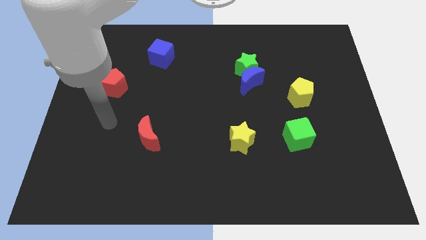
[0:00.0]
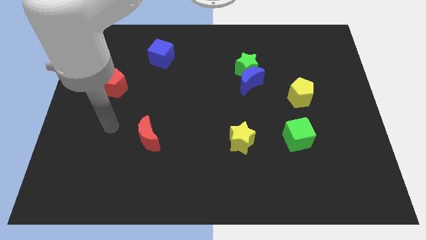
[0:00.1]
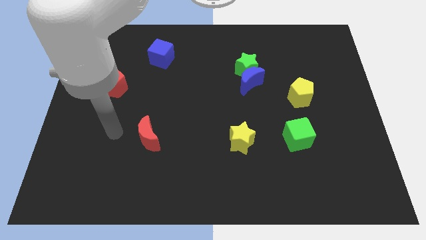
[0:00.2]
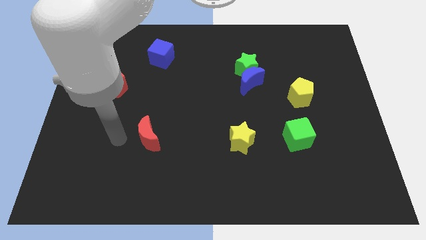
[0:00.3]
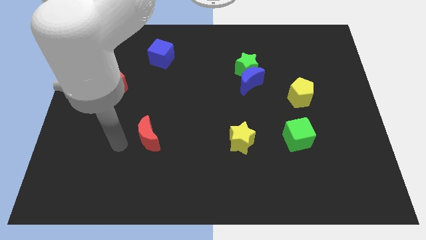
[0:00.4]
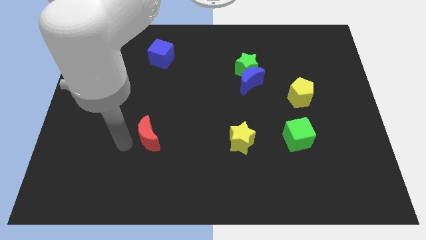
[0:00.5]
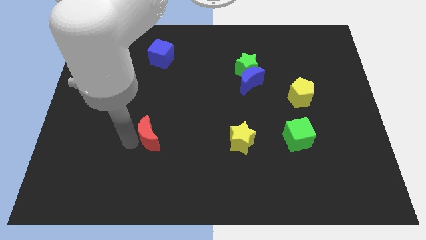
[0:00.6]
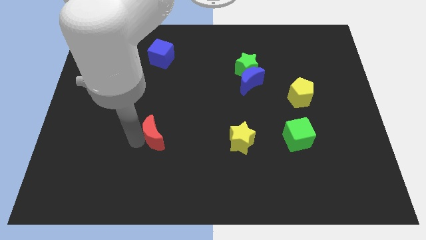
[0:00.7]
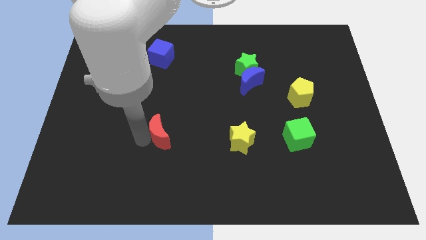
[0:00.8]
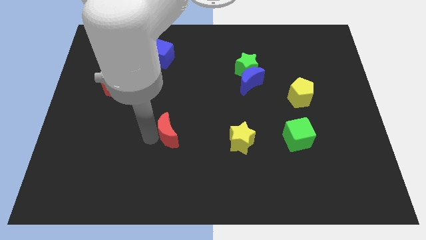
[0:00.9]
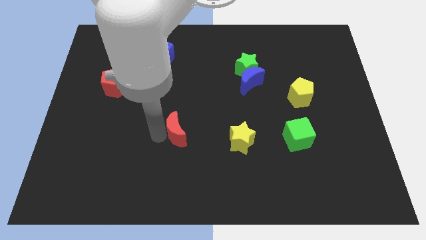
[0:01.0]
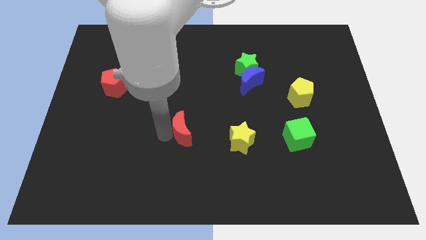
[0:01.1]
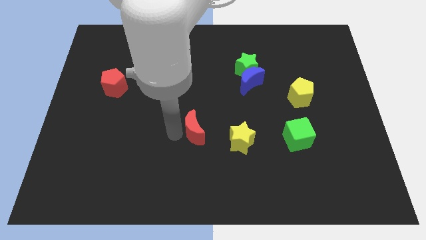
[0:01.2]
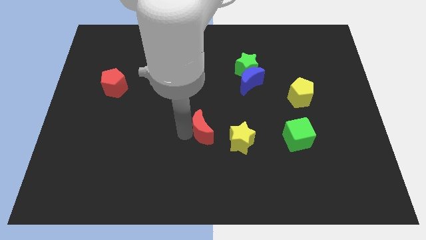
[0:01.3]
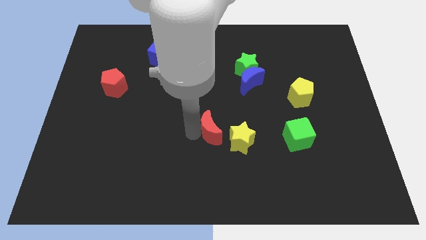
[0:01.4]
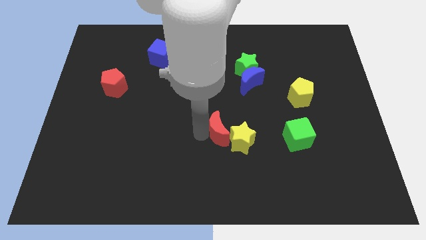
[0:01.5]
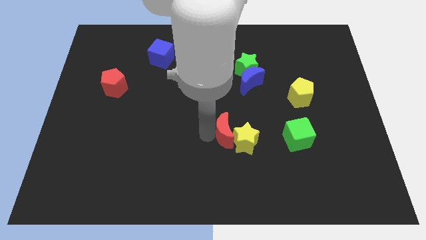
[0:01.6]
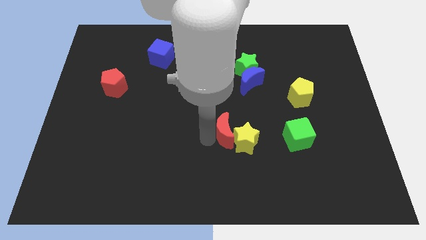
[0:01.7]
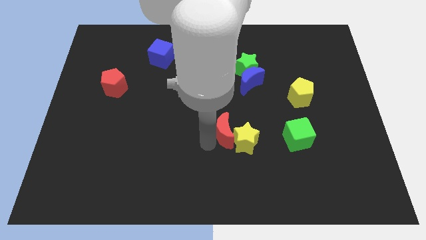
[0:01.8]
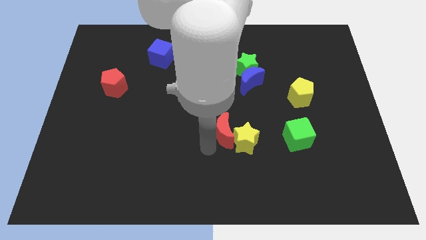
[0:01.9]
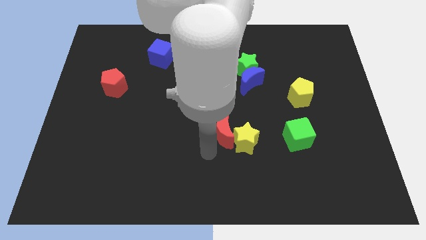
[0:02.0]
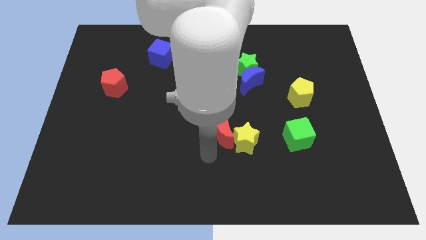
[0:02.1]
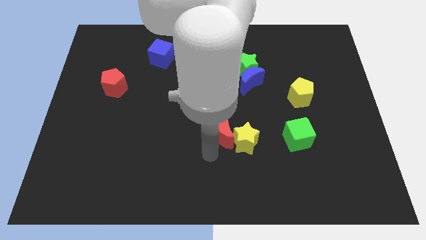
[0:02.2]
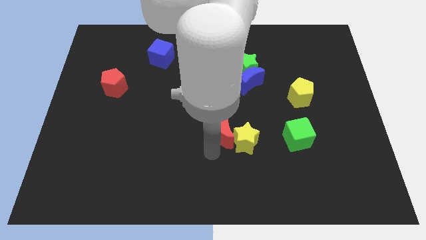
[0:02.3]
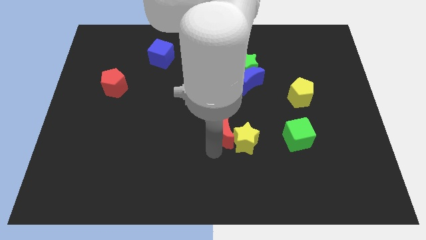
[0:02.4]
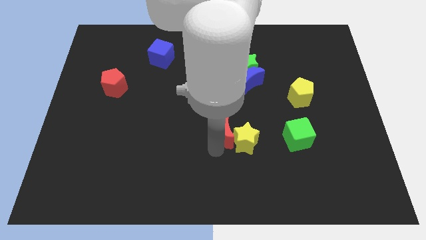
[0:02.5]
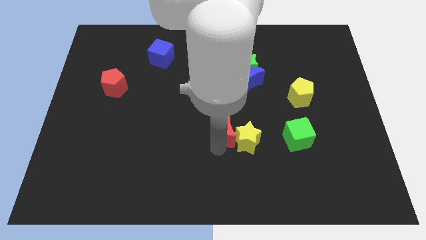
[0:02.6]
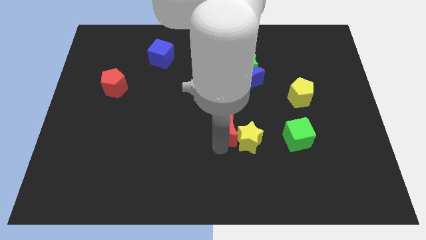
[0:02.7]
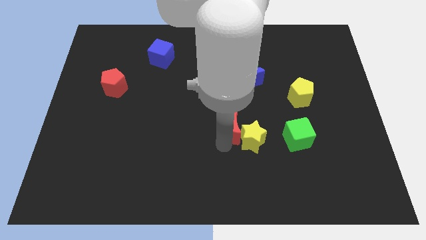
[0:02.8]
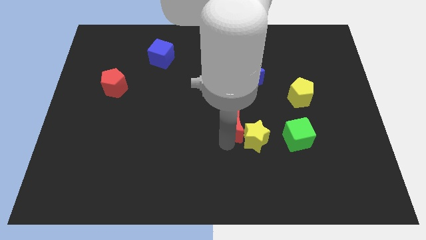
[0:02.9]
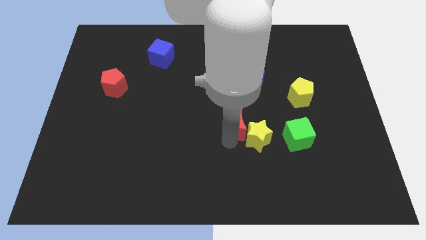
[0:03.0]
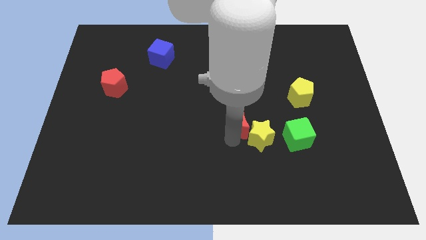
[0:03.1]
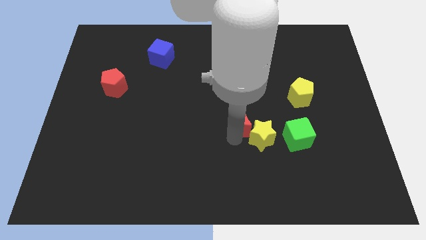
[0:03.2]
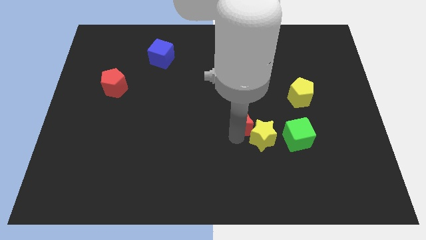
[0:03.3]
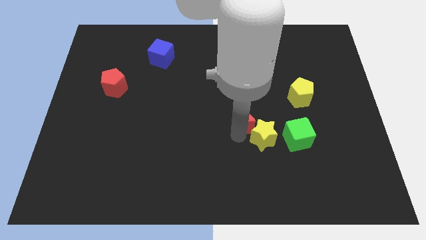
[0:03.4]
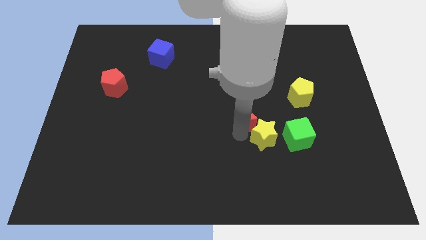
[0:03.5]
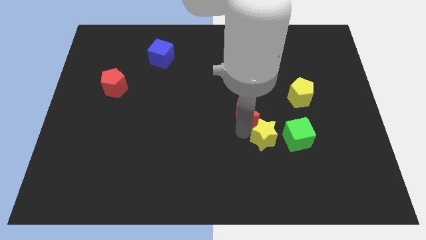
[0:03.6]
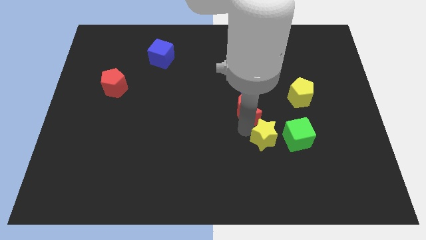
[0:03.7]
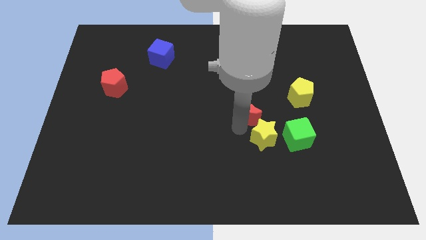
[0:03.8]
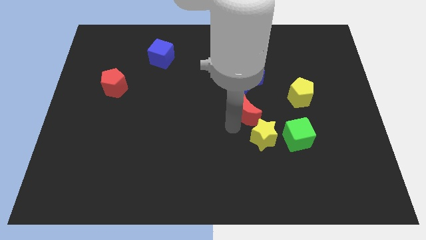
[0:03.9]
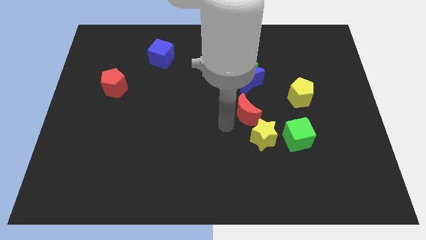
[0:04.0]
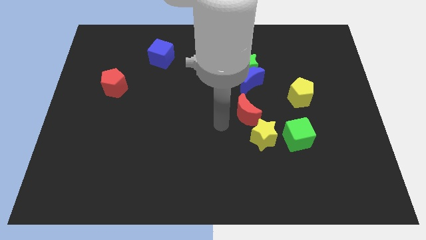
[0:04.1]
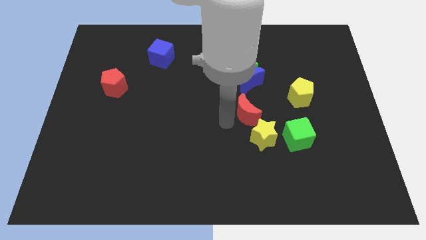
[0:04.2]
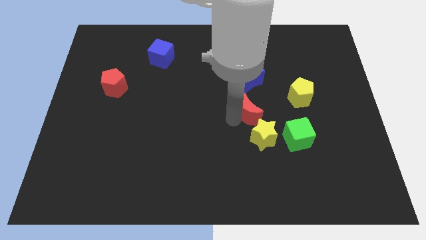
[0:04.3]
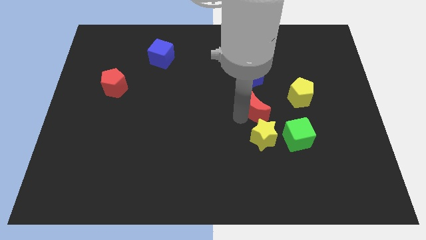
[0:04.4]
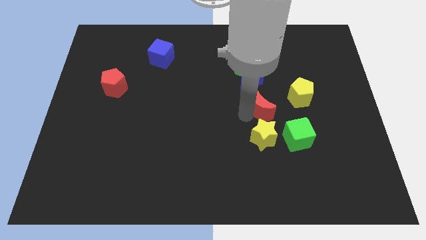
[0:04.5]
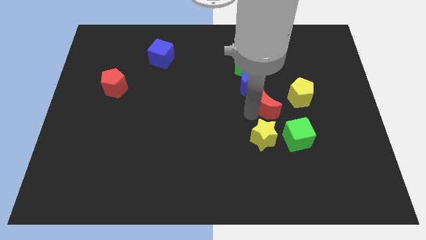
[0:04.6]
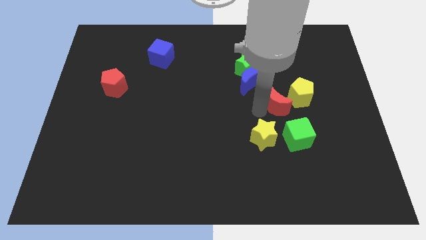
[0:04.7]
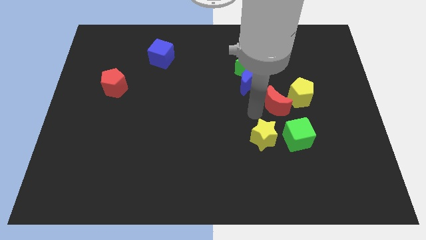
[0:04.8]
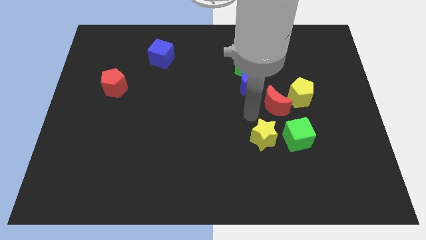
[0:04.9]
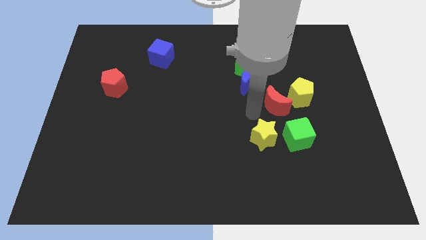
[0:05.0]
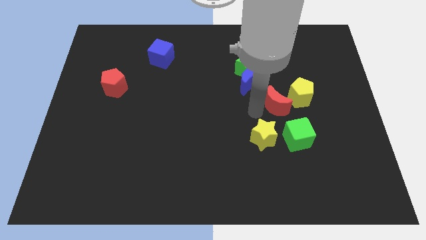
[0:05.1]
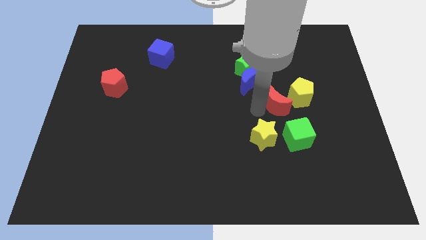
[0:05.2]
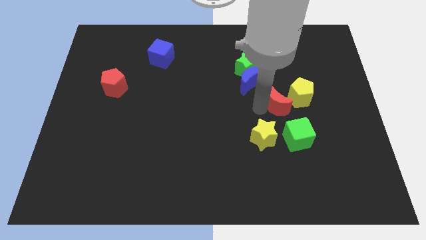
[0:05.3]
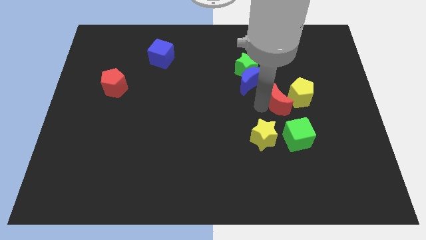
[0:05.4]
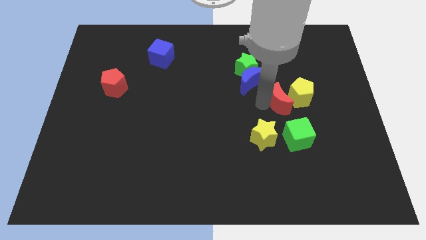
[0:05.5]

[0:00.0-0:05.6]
move the red moon to the yellow pentagon

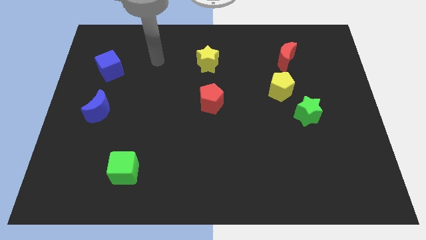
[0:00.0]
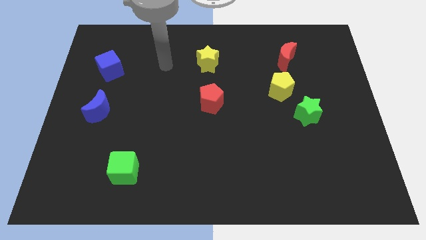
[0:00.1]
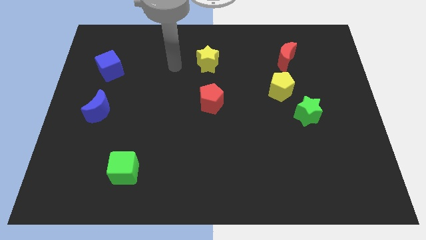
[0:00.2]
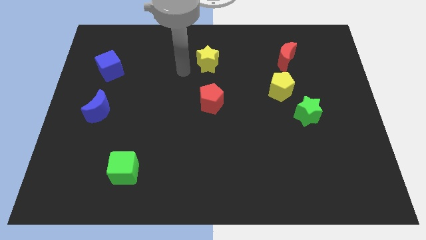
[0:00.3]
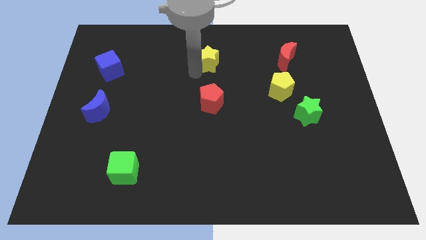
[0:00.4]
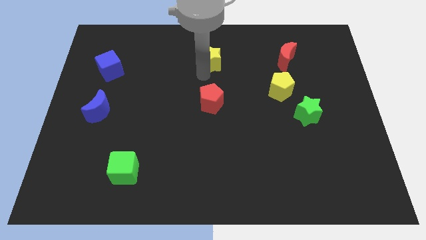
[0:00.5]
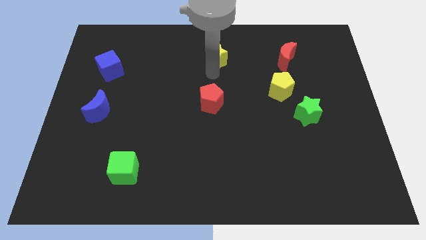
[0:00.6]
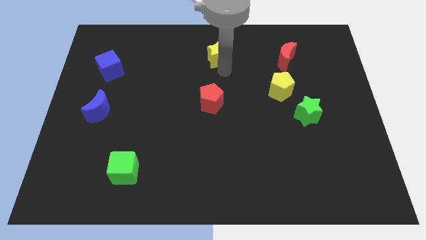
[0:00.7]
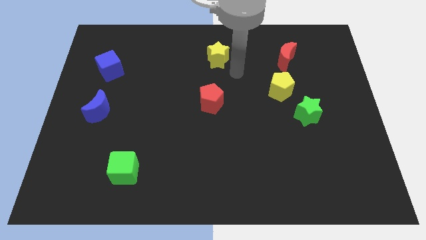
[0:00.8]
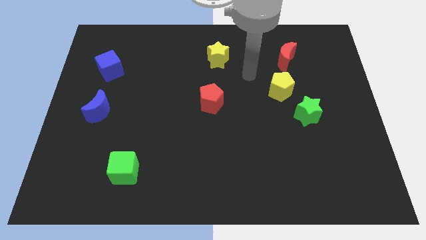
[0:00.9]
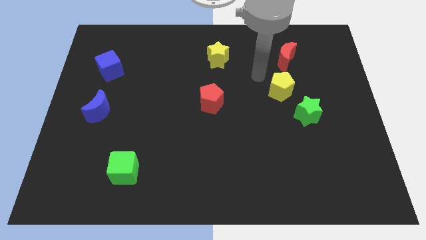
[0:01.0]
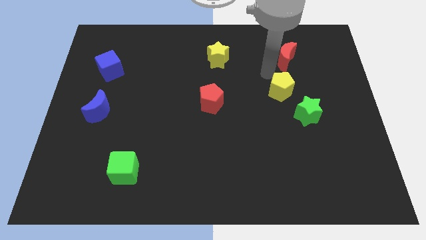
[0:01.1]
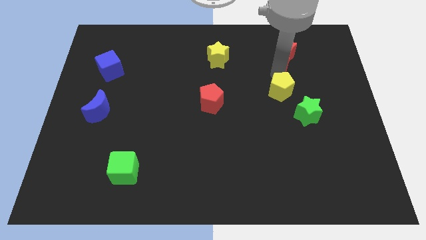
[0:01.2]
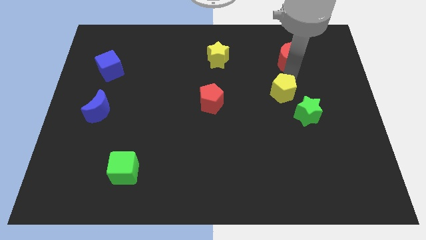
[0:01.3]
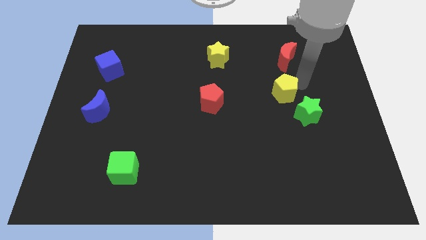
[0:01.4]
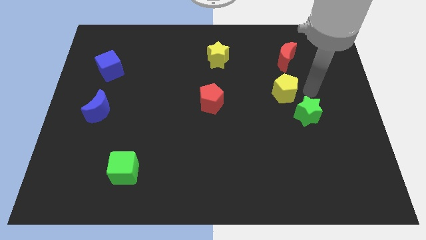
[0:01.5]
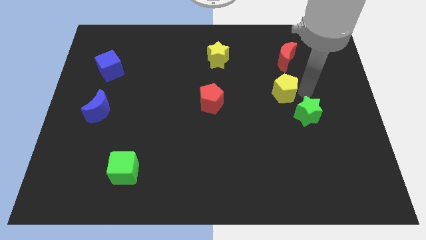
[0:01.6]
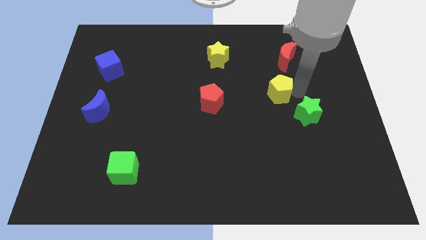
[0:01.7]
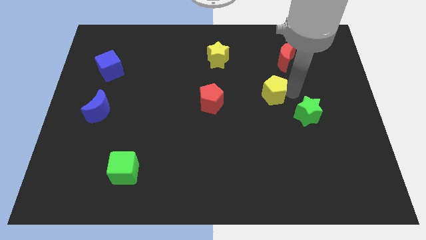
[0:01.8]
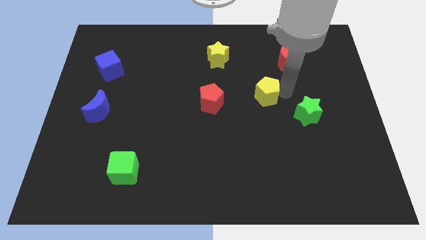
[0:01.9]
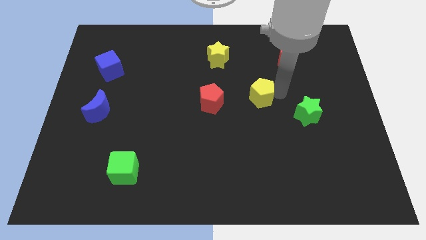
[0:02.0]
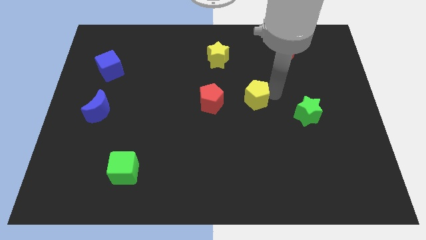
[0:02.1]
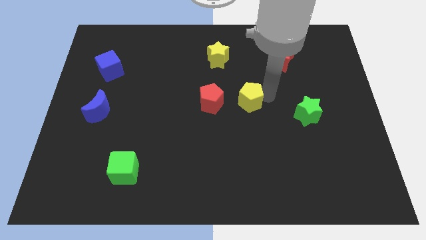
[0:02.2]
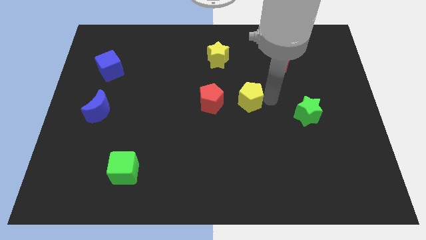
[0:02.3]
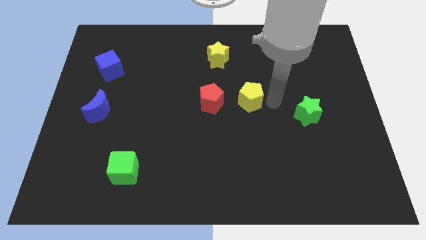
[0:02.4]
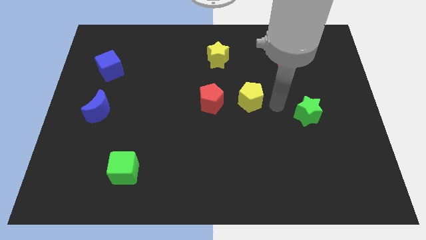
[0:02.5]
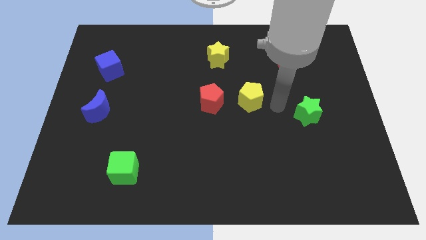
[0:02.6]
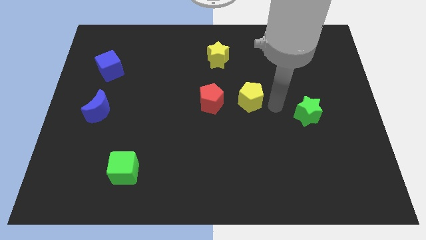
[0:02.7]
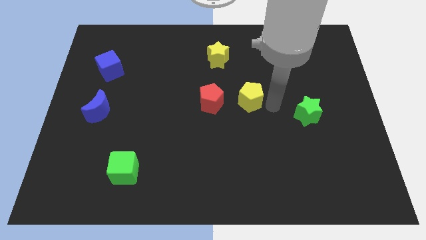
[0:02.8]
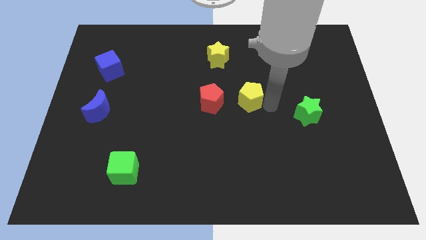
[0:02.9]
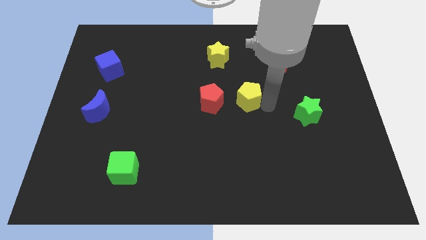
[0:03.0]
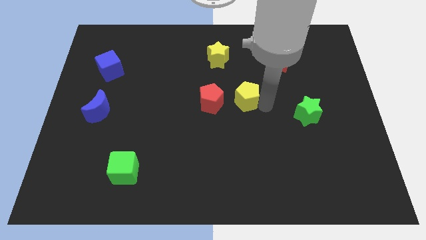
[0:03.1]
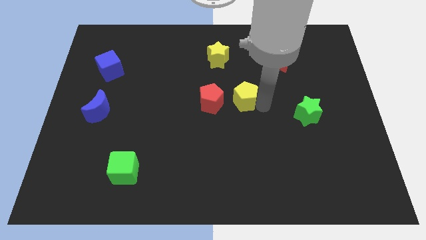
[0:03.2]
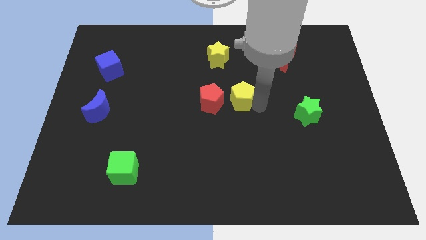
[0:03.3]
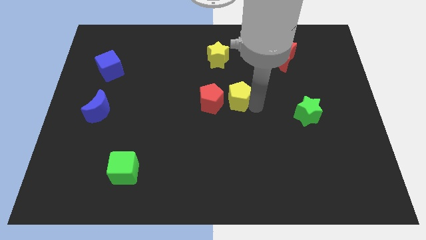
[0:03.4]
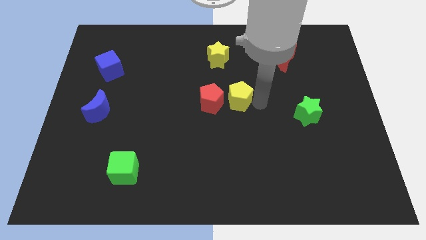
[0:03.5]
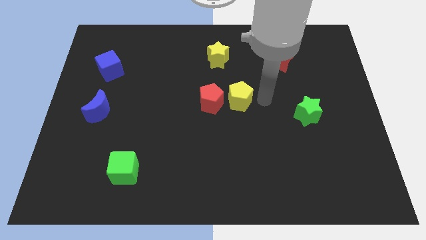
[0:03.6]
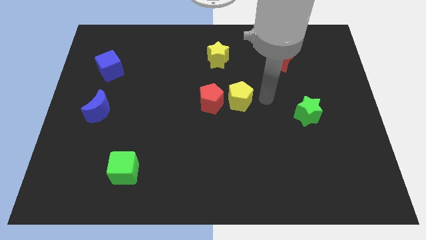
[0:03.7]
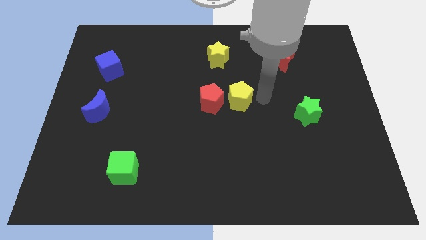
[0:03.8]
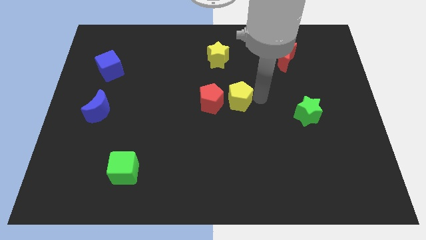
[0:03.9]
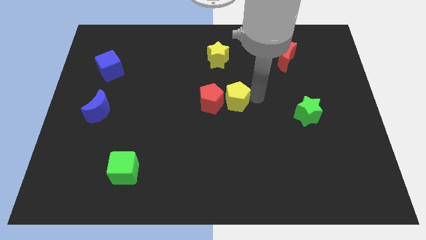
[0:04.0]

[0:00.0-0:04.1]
move the yellow pentagon next to the red pentagon
